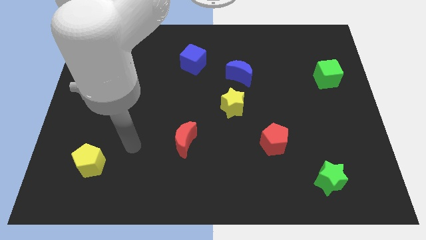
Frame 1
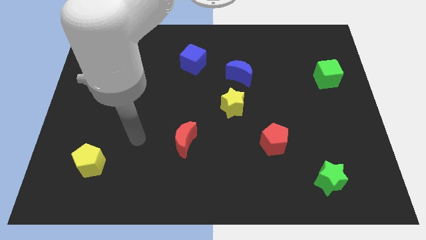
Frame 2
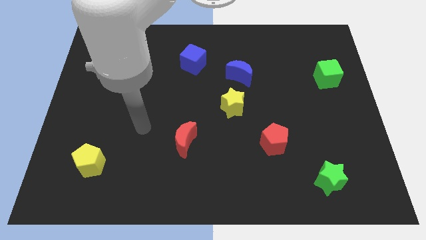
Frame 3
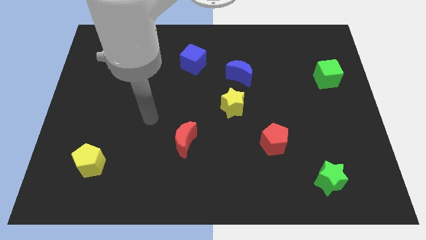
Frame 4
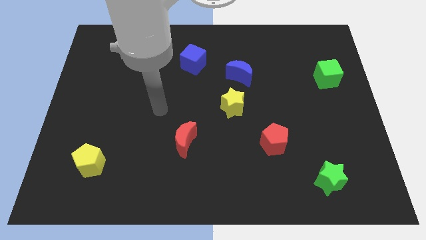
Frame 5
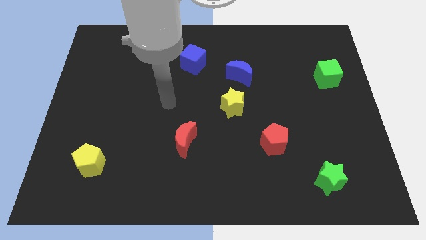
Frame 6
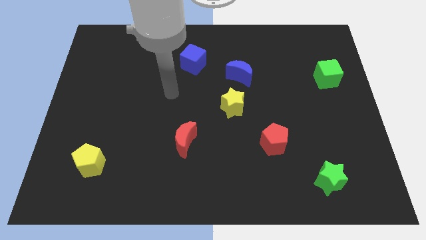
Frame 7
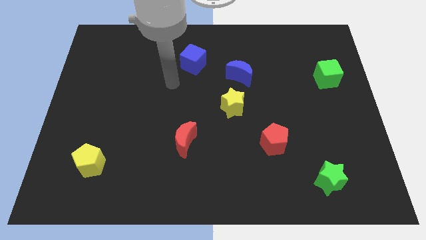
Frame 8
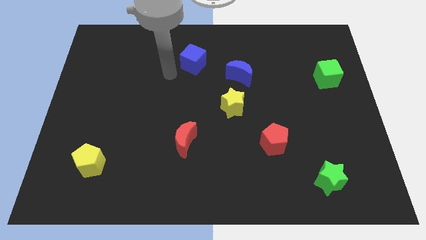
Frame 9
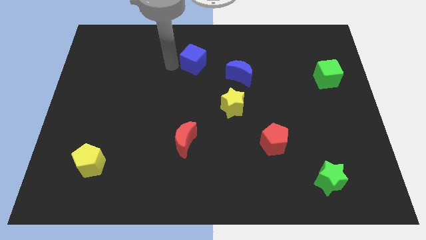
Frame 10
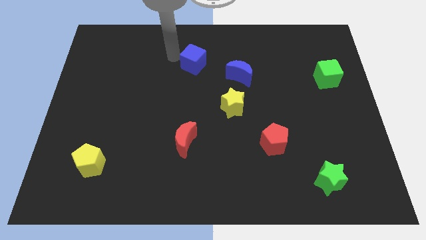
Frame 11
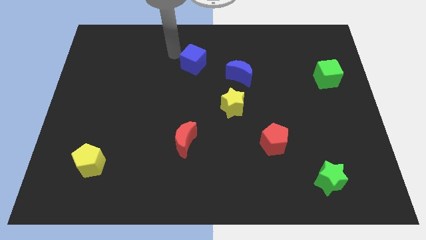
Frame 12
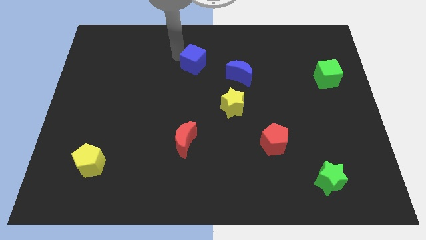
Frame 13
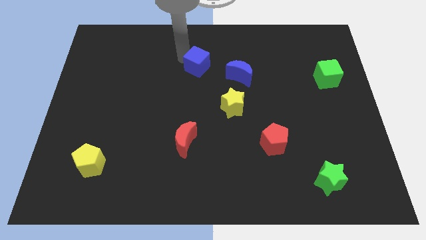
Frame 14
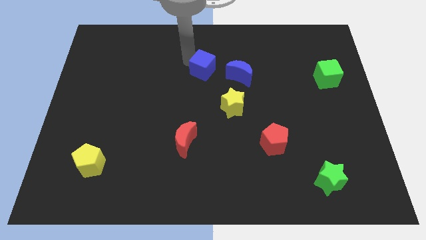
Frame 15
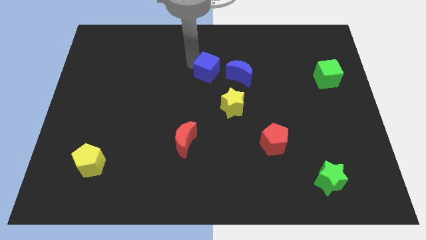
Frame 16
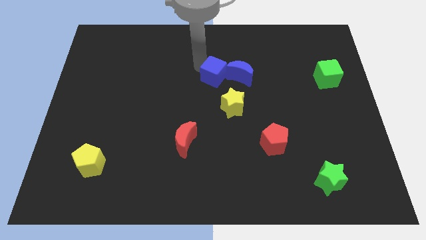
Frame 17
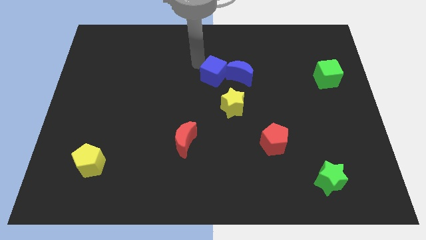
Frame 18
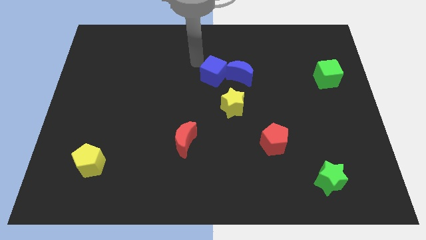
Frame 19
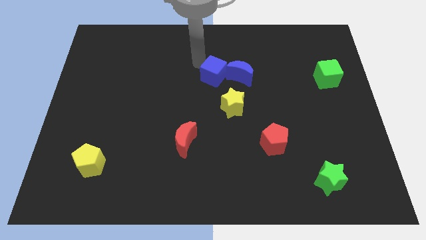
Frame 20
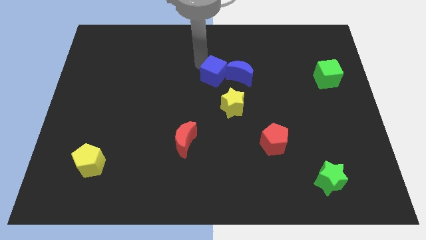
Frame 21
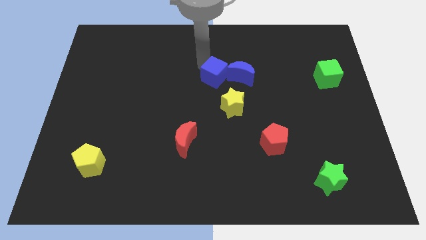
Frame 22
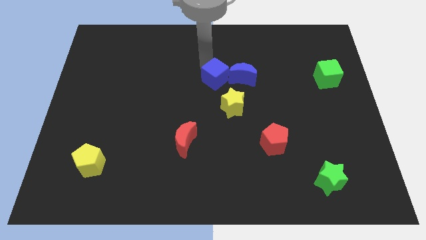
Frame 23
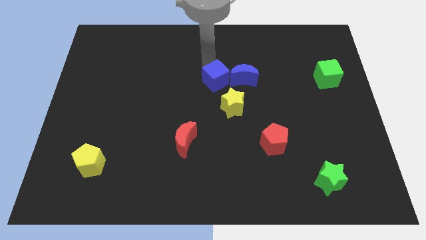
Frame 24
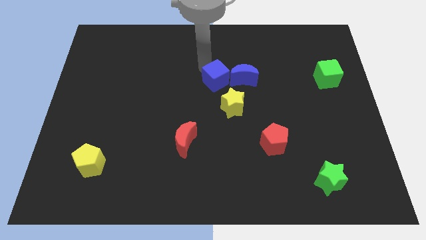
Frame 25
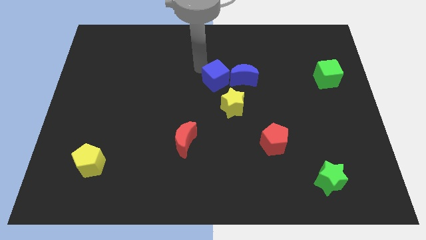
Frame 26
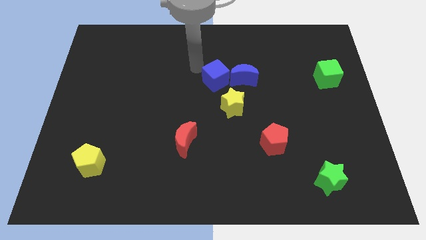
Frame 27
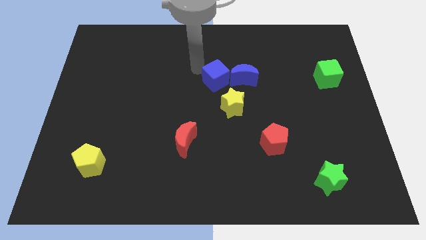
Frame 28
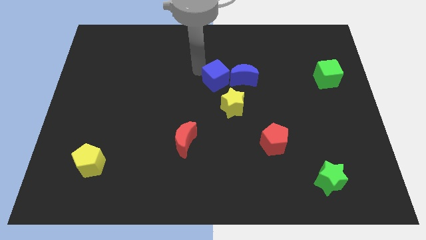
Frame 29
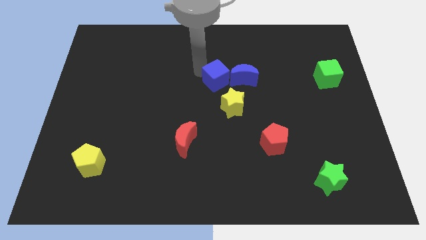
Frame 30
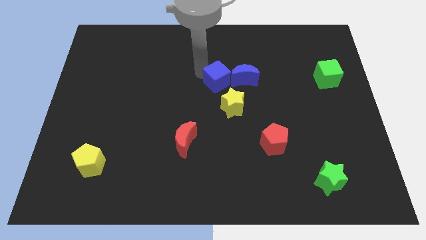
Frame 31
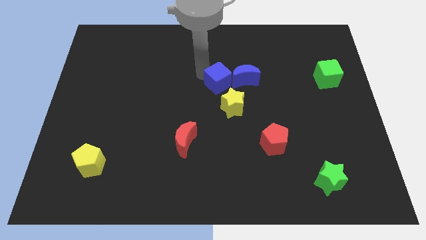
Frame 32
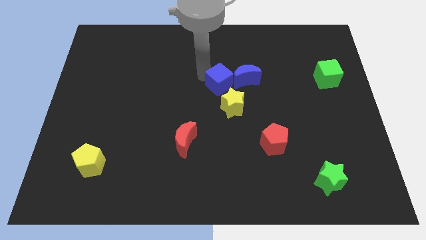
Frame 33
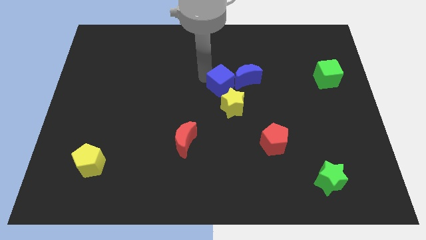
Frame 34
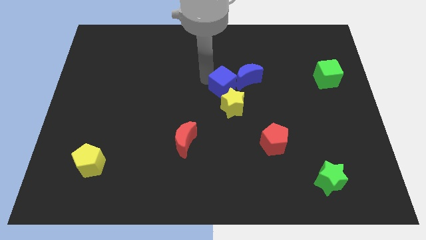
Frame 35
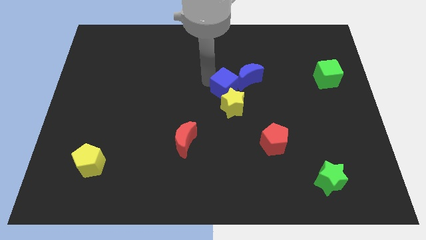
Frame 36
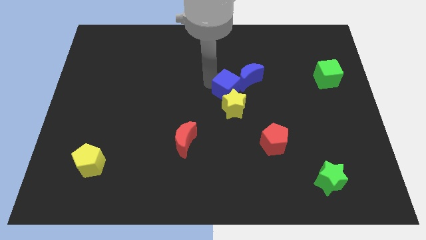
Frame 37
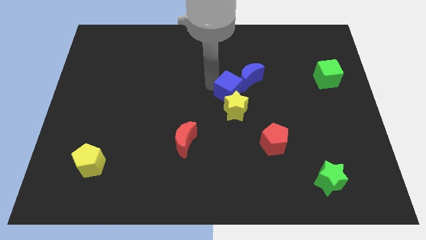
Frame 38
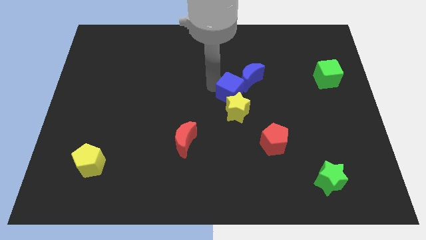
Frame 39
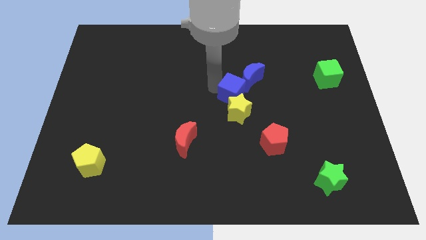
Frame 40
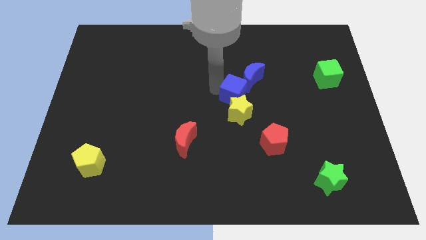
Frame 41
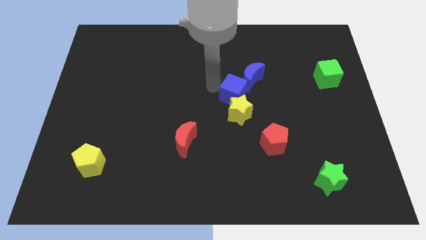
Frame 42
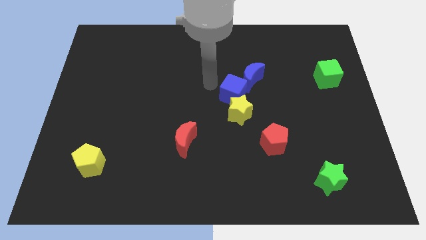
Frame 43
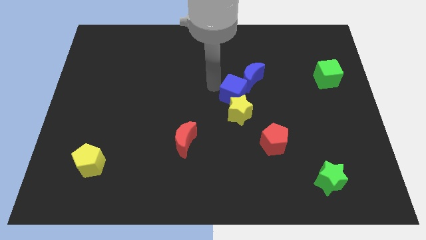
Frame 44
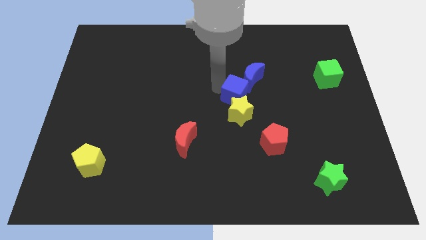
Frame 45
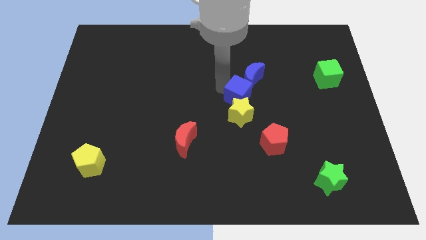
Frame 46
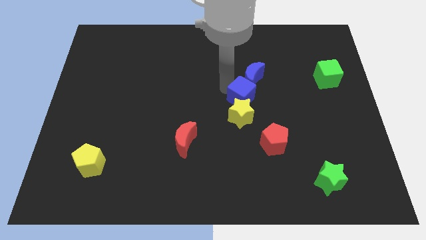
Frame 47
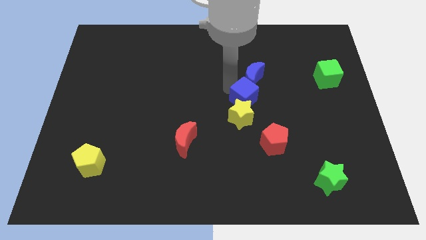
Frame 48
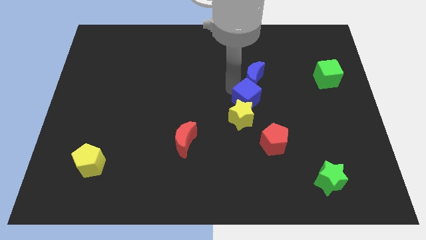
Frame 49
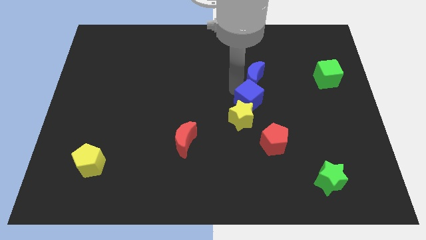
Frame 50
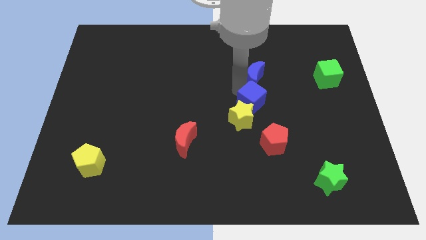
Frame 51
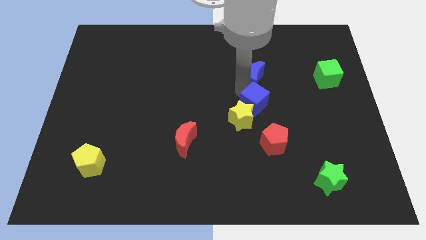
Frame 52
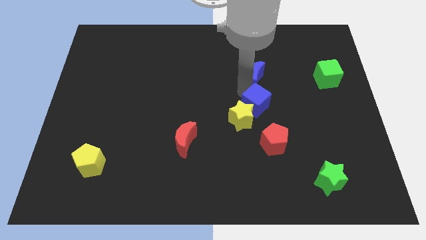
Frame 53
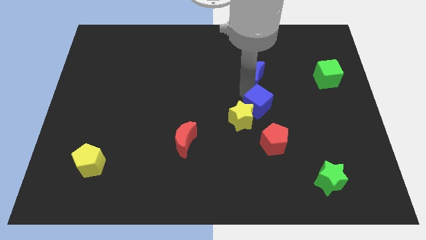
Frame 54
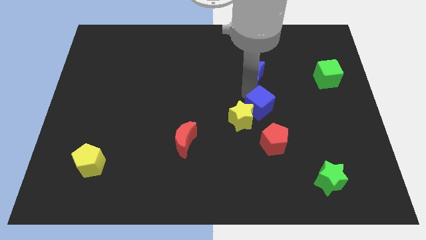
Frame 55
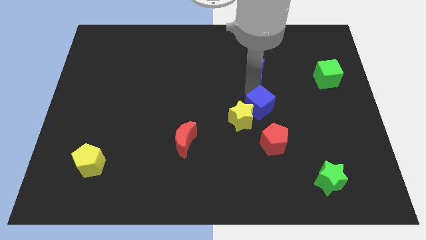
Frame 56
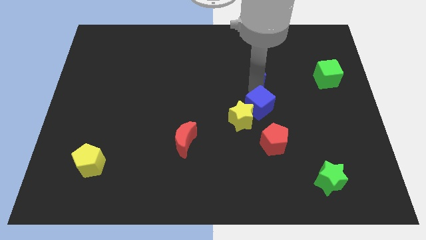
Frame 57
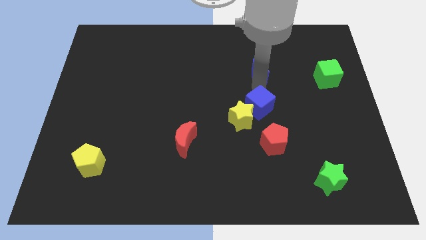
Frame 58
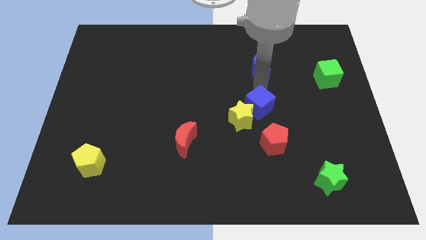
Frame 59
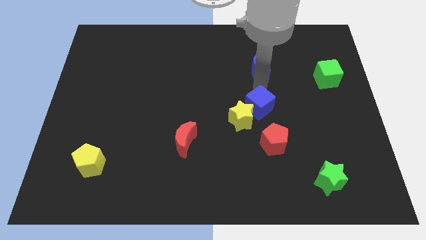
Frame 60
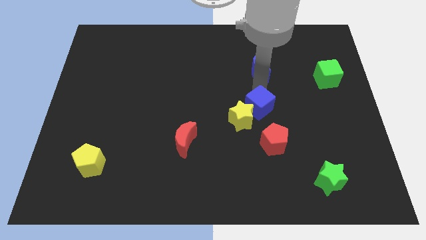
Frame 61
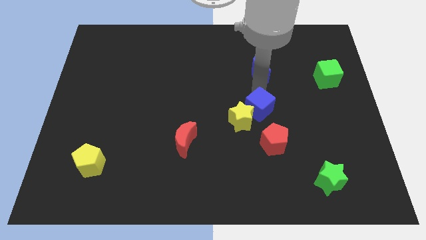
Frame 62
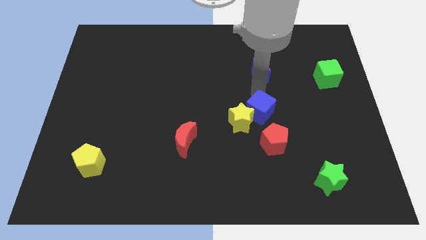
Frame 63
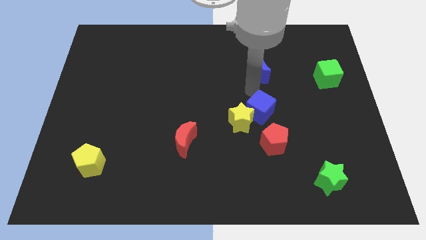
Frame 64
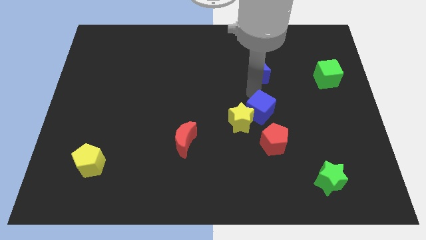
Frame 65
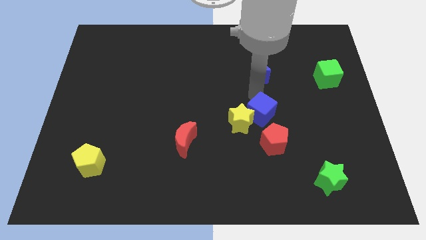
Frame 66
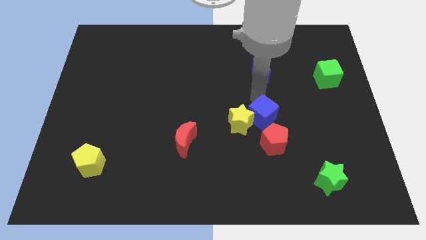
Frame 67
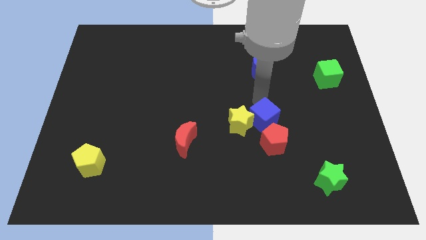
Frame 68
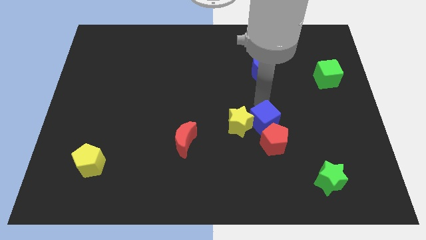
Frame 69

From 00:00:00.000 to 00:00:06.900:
move the blue cube to the red pentagon
